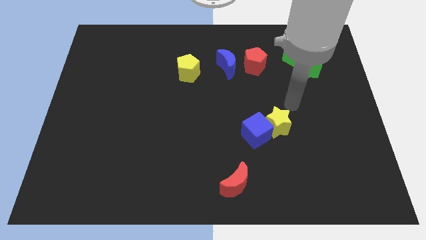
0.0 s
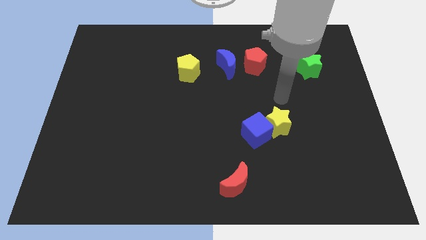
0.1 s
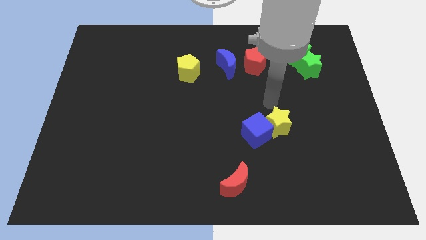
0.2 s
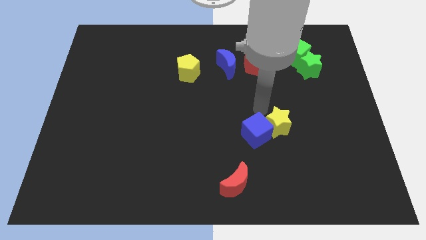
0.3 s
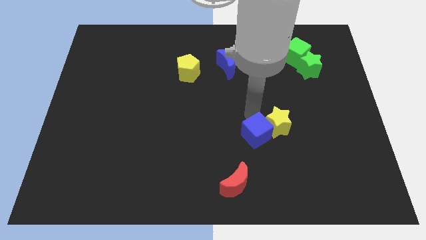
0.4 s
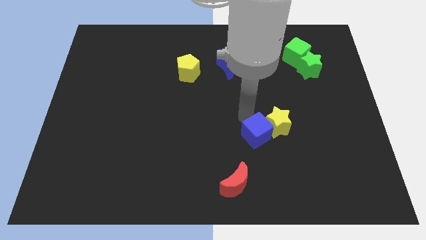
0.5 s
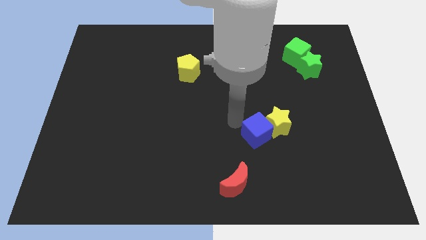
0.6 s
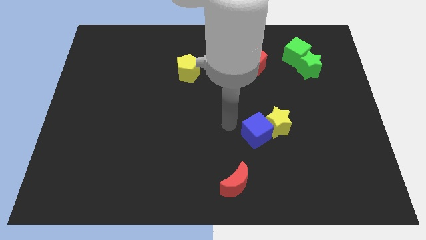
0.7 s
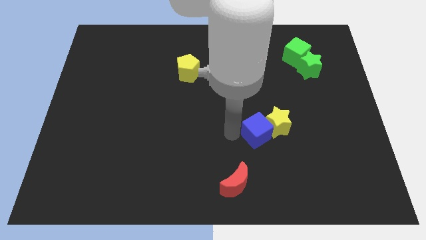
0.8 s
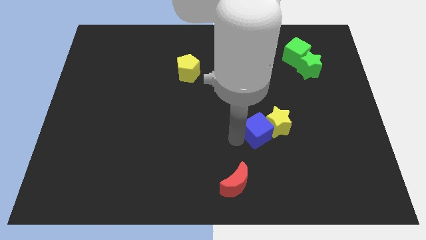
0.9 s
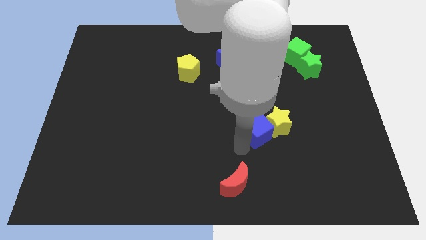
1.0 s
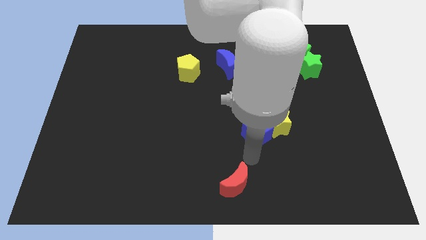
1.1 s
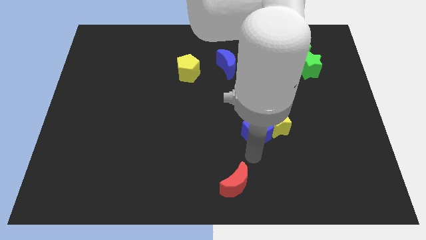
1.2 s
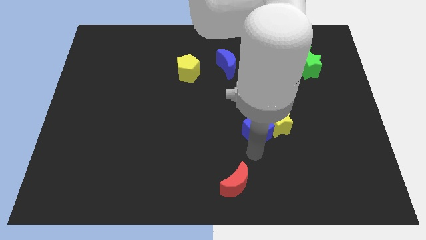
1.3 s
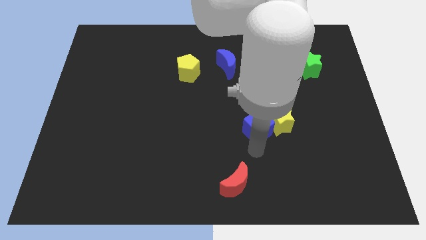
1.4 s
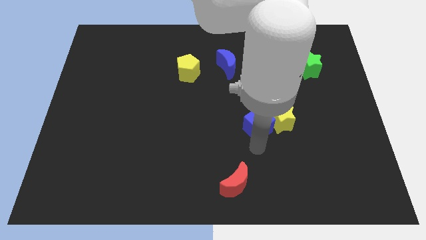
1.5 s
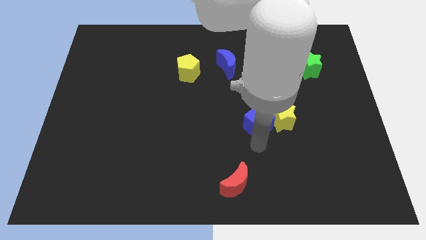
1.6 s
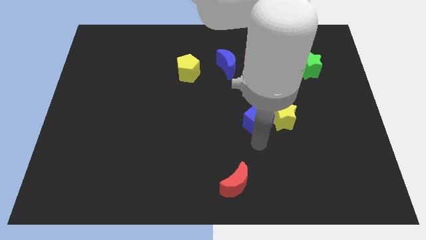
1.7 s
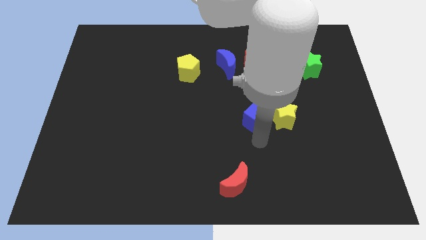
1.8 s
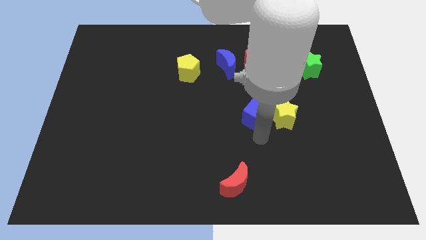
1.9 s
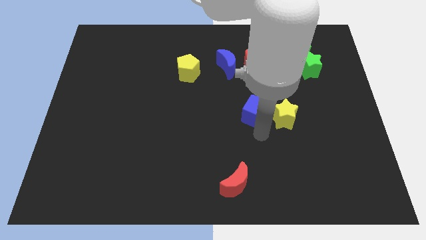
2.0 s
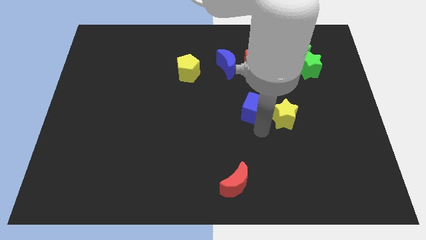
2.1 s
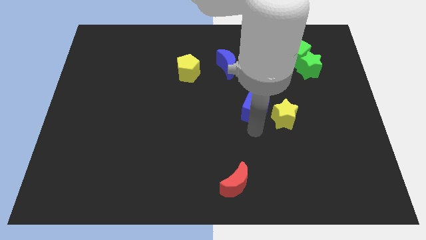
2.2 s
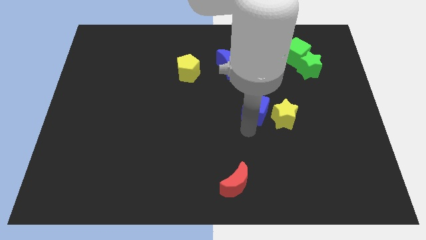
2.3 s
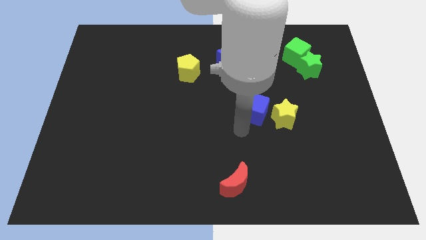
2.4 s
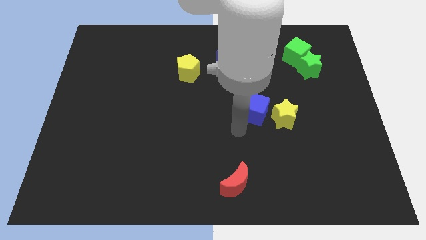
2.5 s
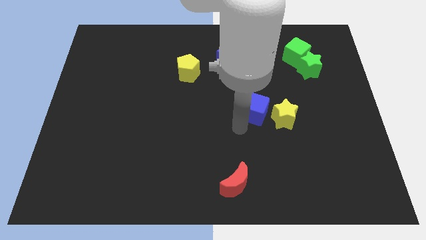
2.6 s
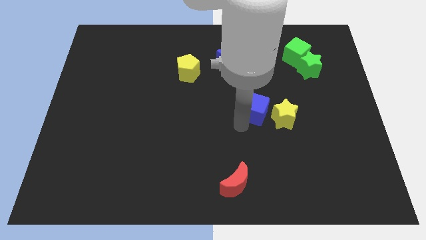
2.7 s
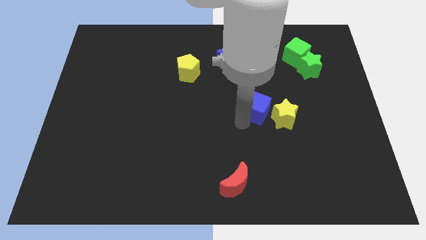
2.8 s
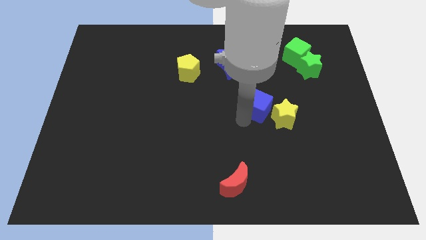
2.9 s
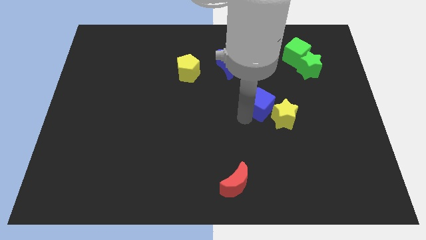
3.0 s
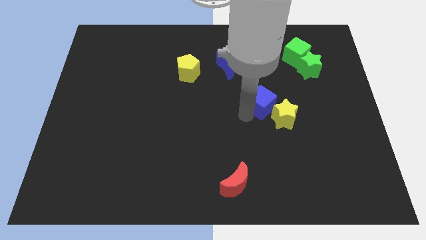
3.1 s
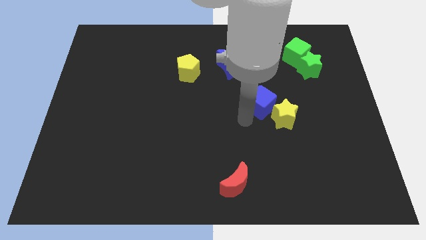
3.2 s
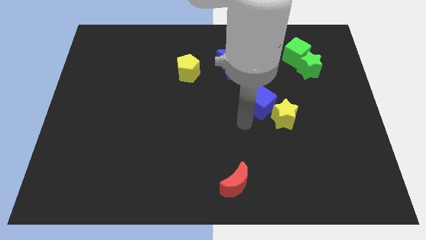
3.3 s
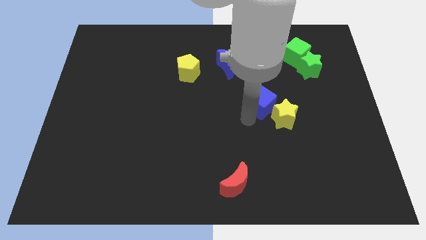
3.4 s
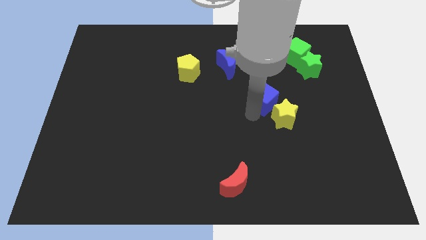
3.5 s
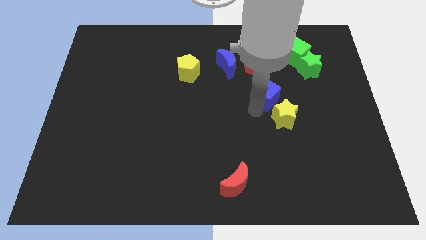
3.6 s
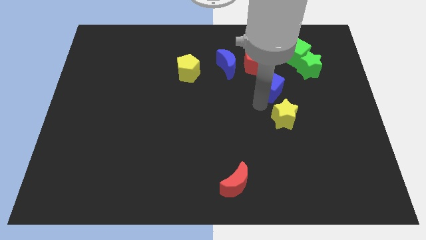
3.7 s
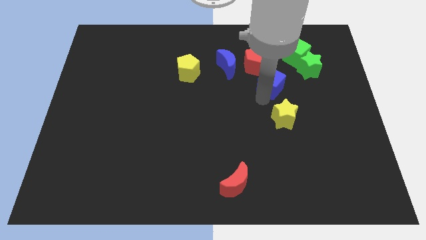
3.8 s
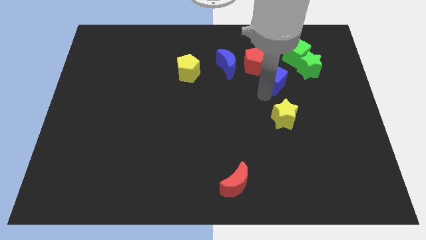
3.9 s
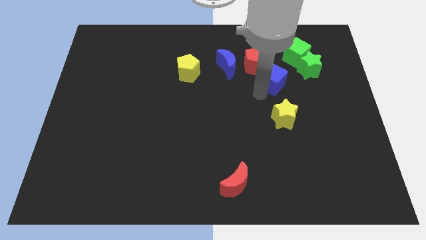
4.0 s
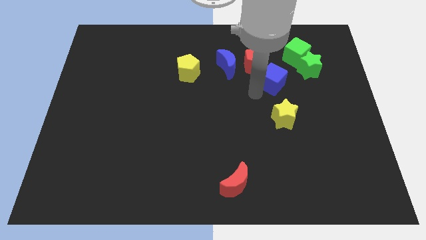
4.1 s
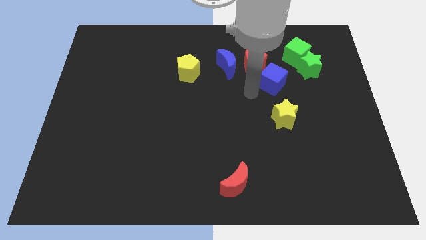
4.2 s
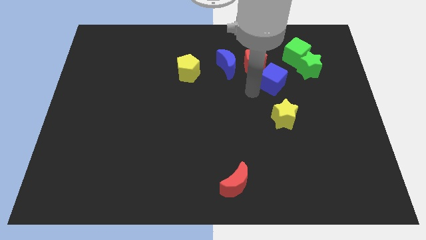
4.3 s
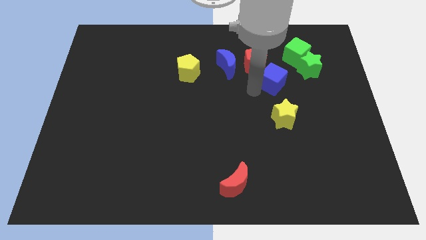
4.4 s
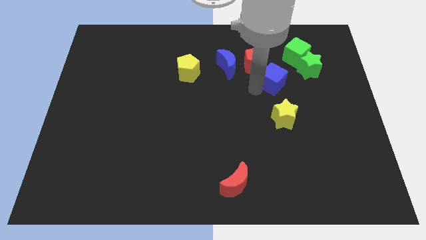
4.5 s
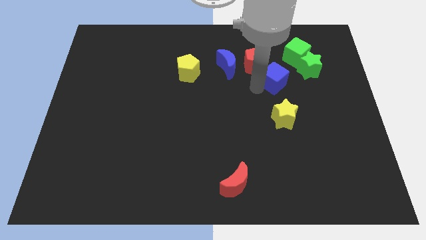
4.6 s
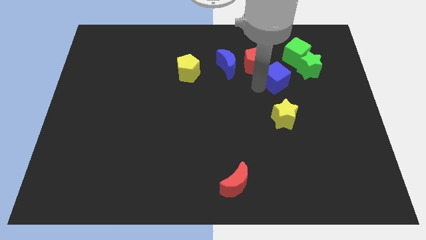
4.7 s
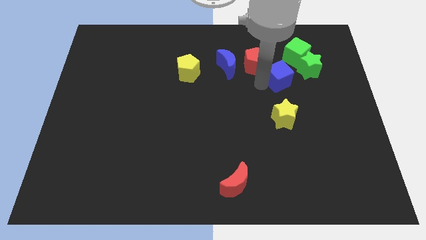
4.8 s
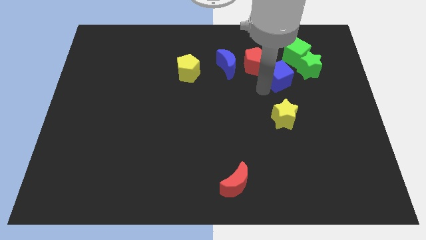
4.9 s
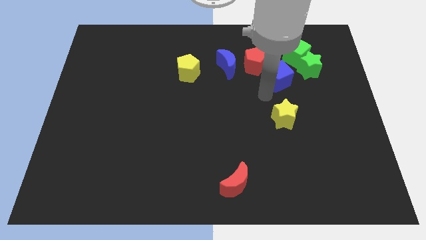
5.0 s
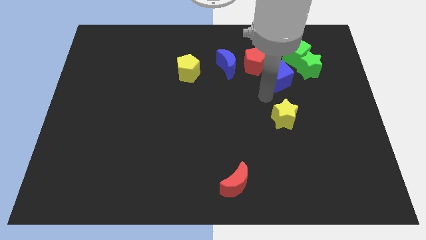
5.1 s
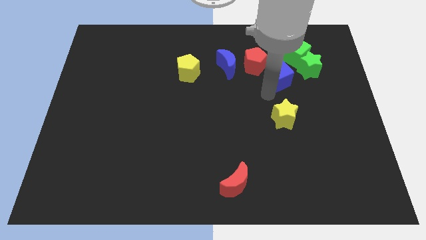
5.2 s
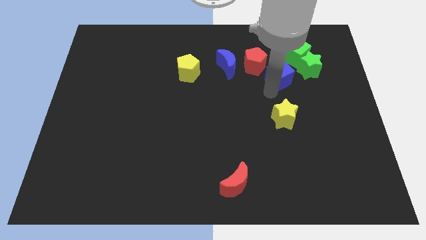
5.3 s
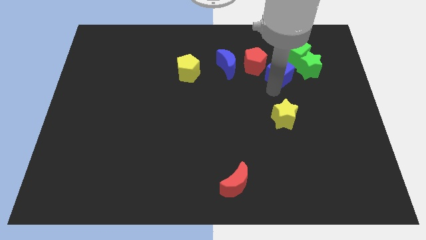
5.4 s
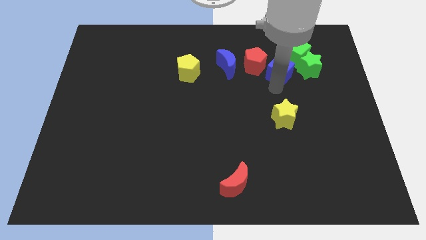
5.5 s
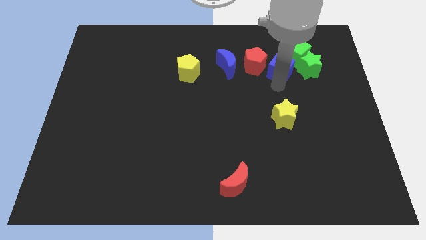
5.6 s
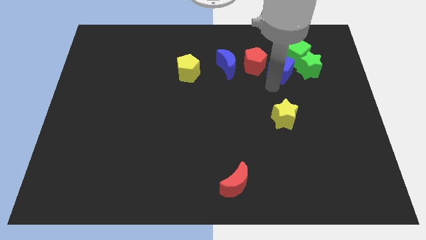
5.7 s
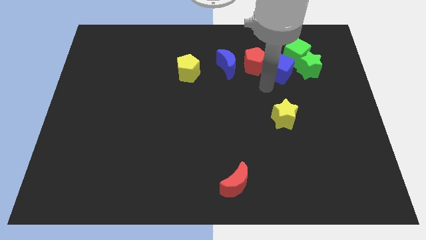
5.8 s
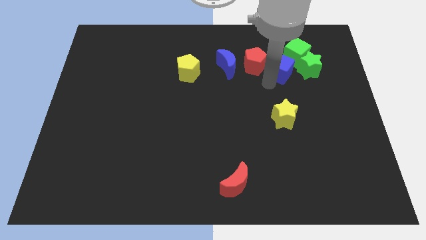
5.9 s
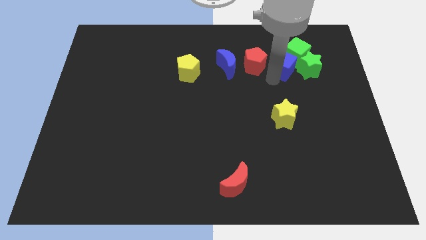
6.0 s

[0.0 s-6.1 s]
slide the blue cube to the green cube
